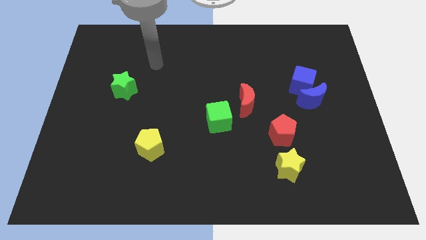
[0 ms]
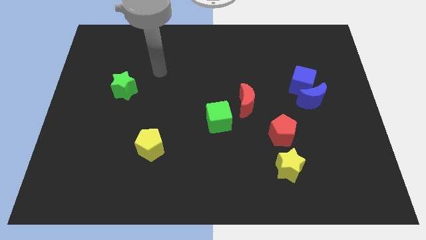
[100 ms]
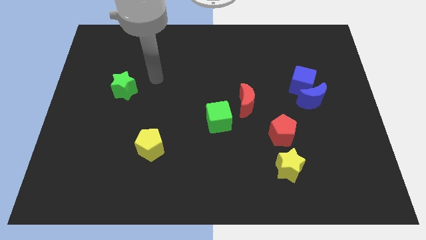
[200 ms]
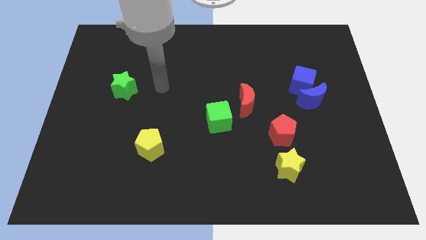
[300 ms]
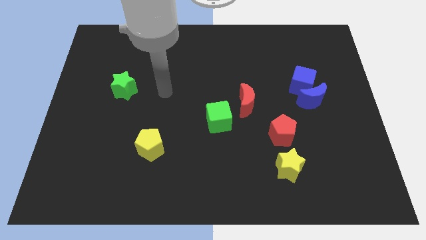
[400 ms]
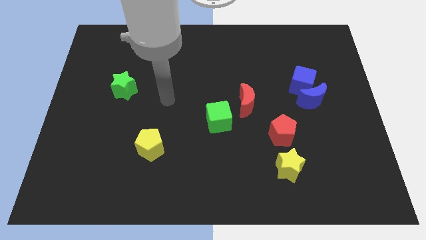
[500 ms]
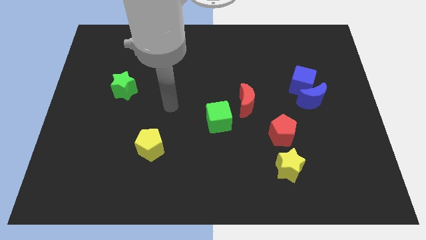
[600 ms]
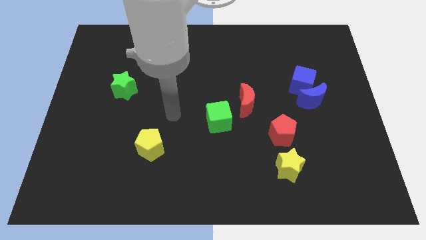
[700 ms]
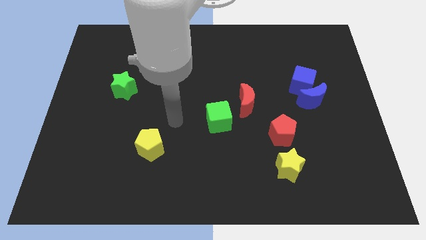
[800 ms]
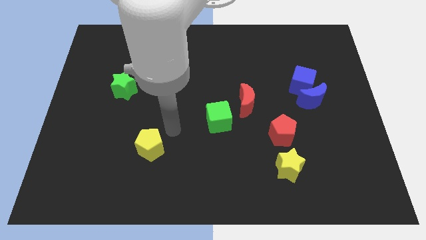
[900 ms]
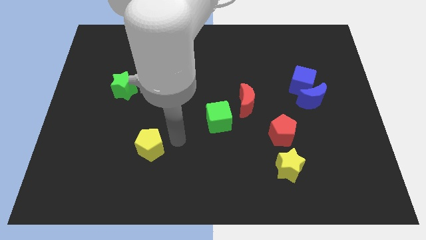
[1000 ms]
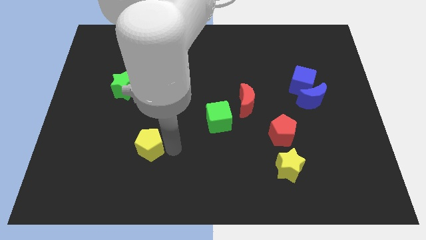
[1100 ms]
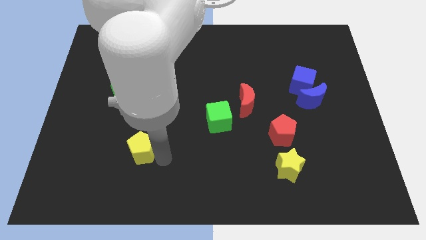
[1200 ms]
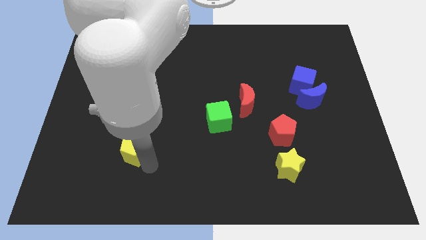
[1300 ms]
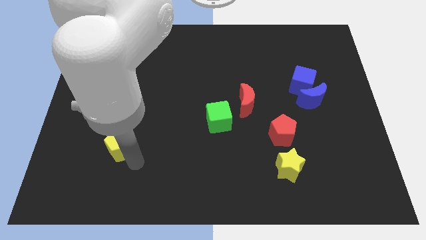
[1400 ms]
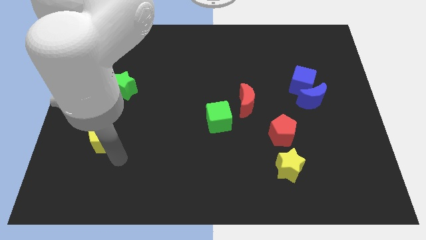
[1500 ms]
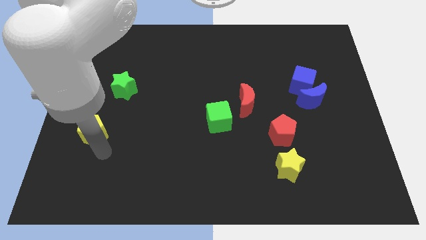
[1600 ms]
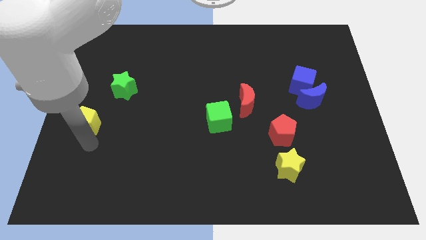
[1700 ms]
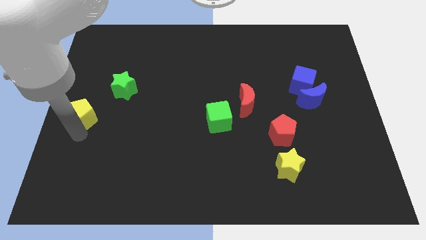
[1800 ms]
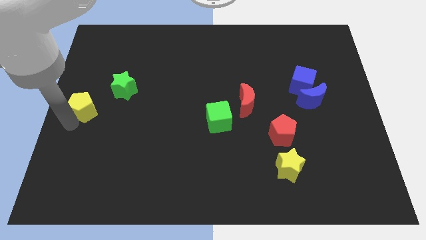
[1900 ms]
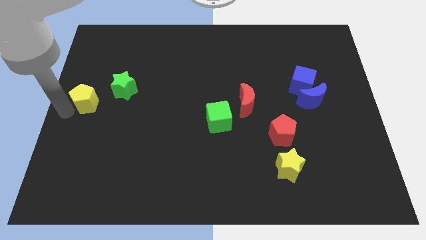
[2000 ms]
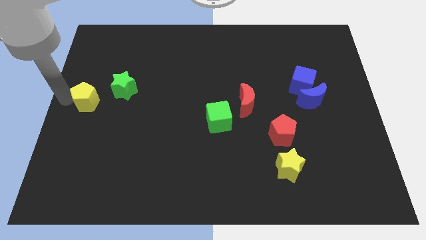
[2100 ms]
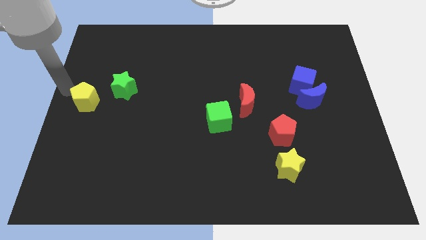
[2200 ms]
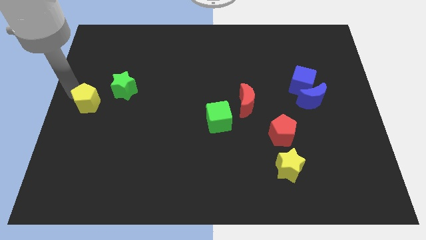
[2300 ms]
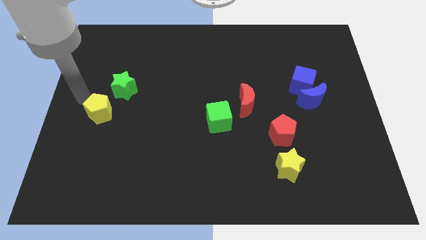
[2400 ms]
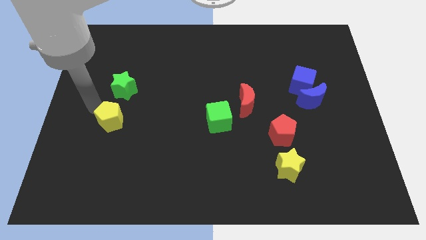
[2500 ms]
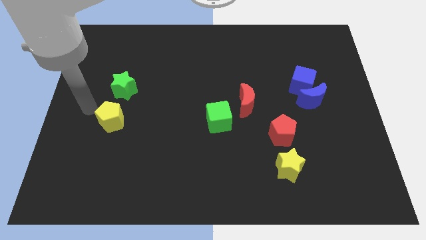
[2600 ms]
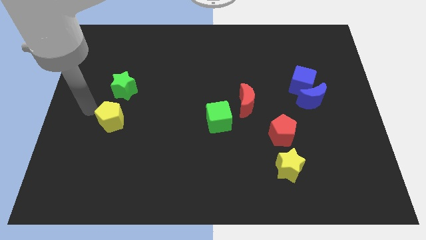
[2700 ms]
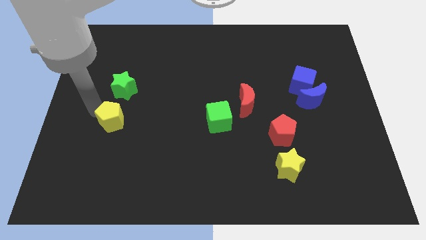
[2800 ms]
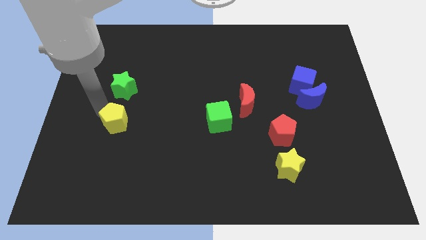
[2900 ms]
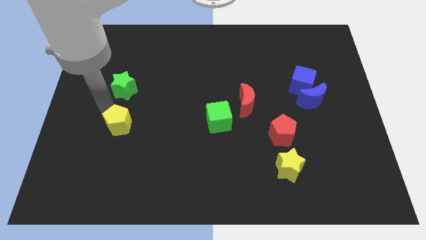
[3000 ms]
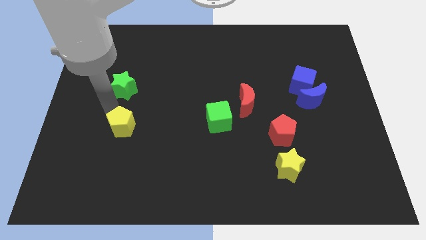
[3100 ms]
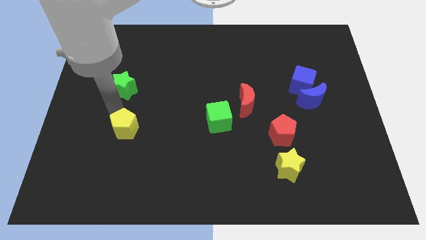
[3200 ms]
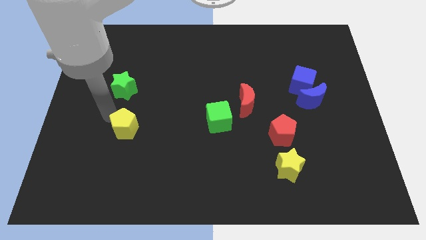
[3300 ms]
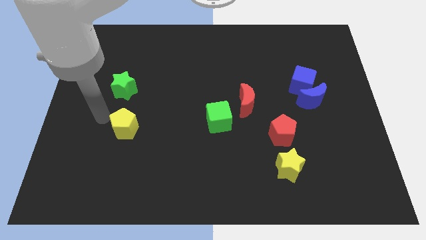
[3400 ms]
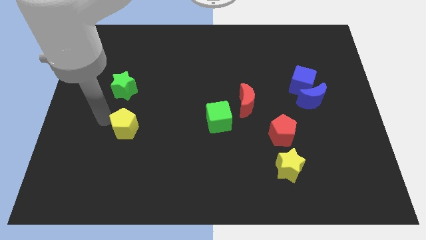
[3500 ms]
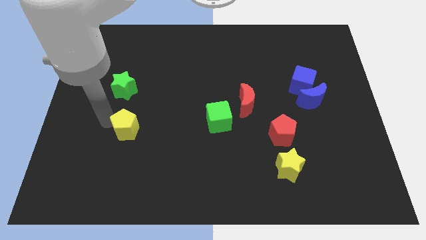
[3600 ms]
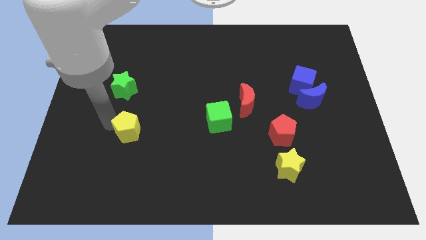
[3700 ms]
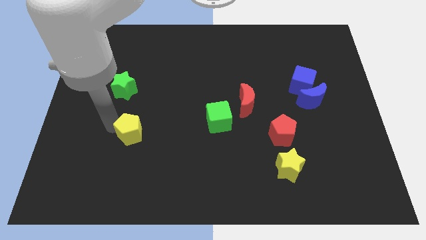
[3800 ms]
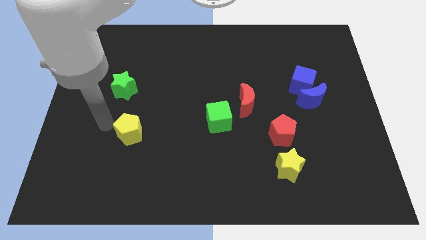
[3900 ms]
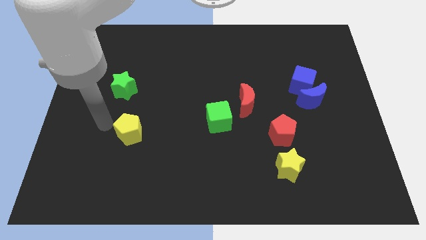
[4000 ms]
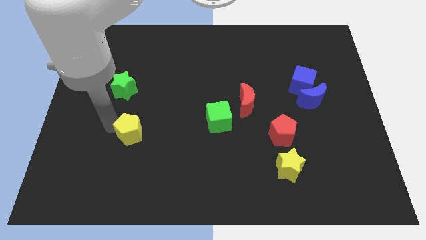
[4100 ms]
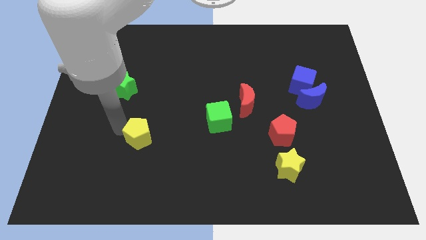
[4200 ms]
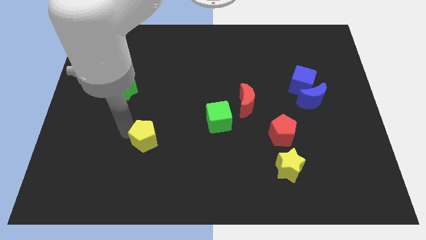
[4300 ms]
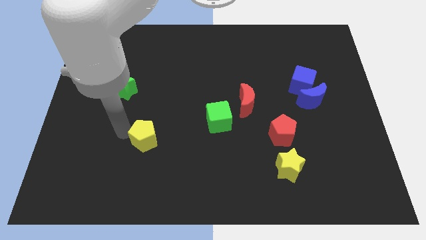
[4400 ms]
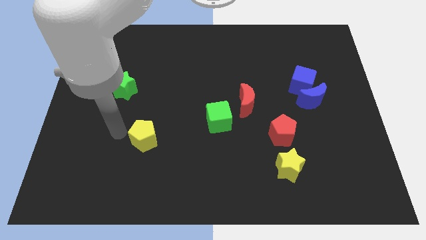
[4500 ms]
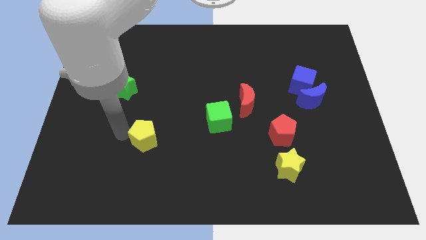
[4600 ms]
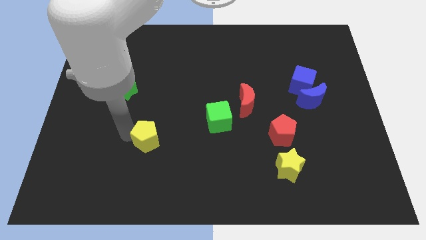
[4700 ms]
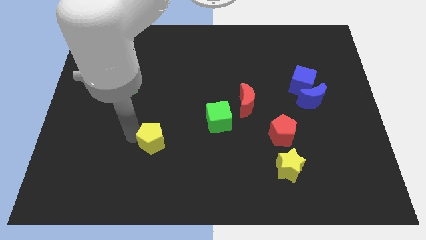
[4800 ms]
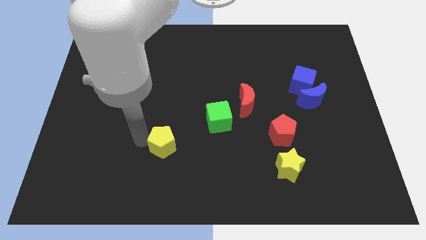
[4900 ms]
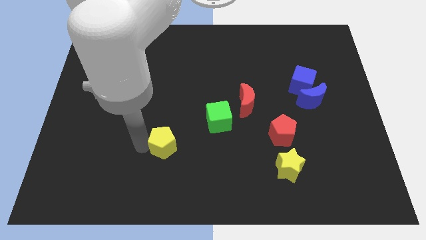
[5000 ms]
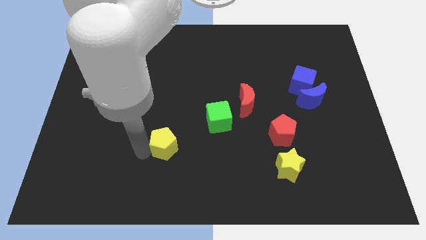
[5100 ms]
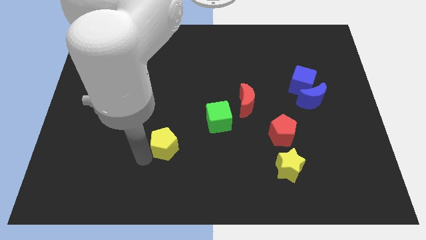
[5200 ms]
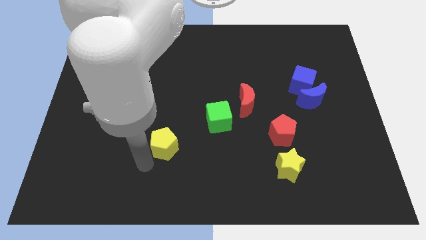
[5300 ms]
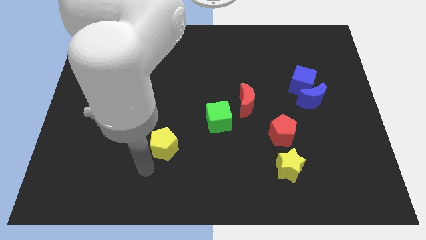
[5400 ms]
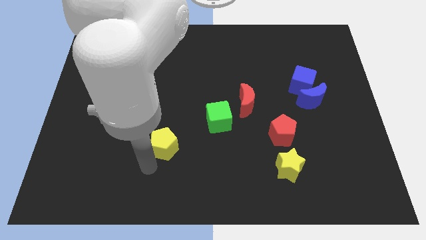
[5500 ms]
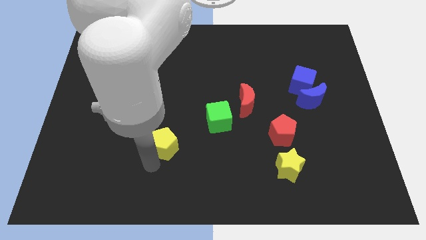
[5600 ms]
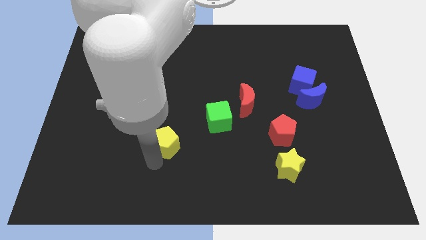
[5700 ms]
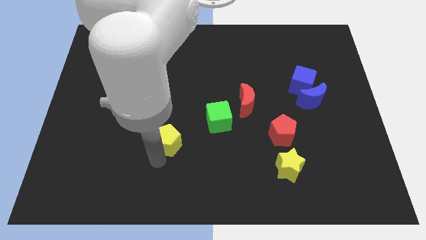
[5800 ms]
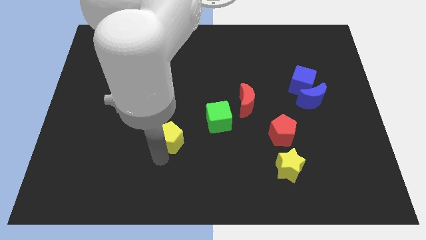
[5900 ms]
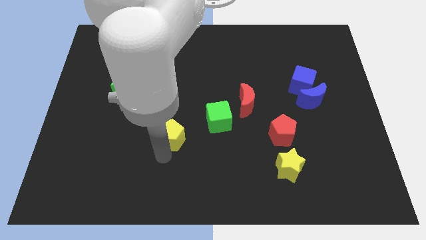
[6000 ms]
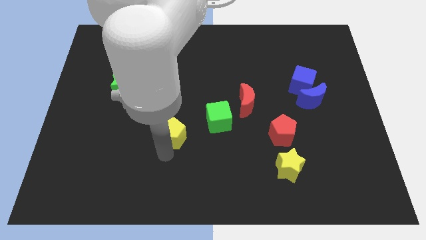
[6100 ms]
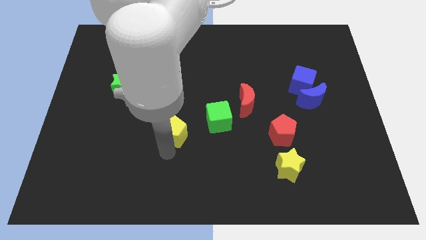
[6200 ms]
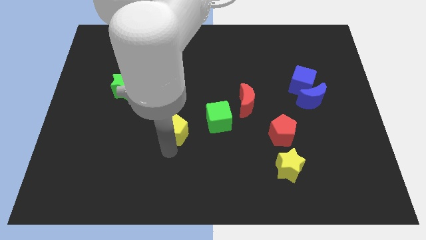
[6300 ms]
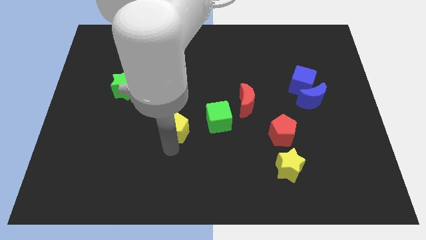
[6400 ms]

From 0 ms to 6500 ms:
push the yellow pentagon a little diagonally upwards and to the right

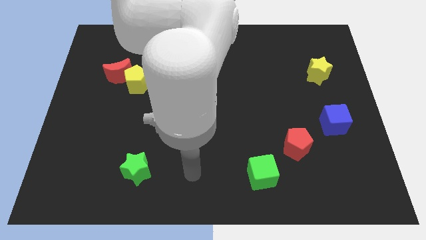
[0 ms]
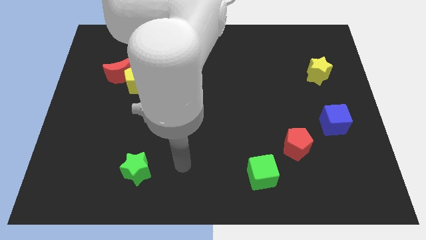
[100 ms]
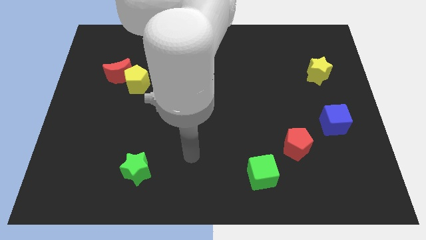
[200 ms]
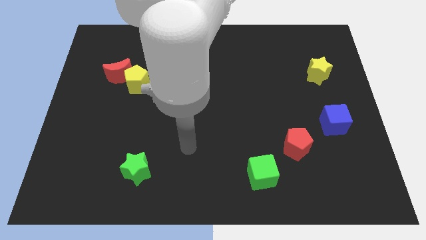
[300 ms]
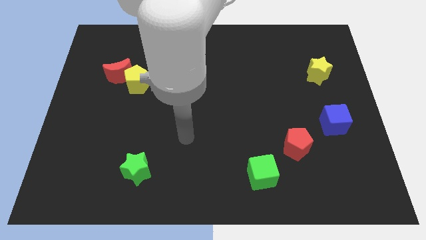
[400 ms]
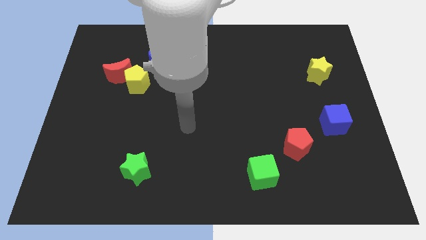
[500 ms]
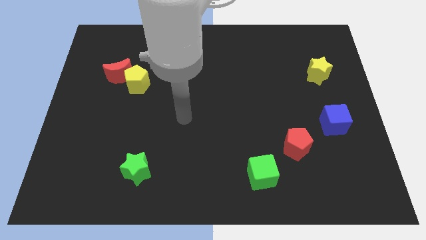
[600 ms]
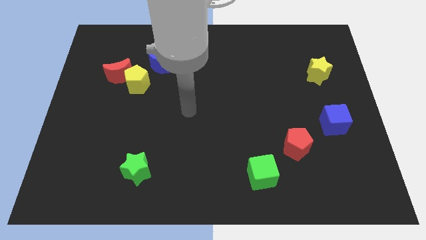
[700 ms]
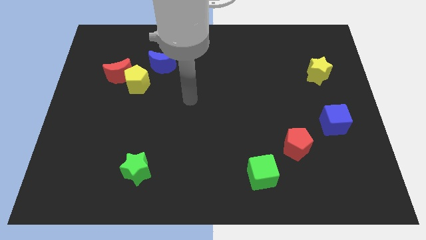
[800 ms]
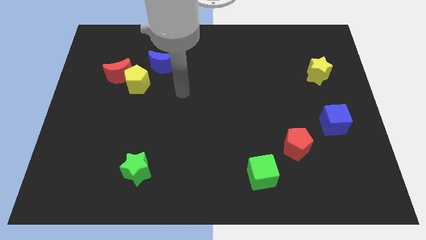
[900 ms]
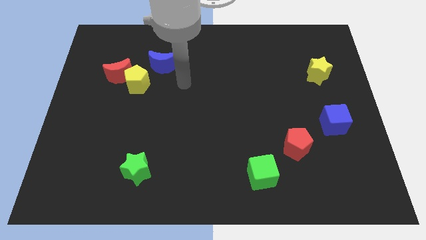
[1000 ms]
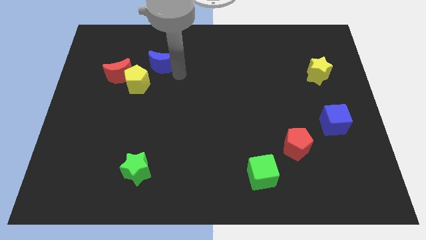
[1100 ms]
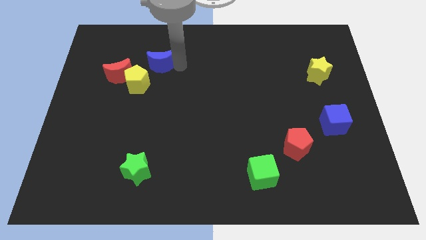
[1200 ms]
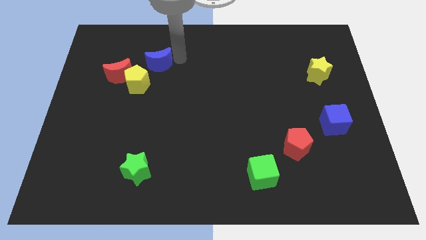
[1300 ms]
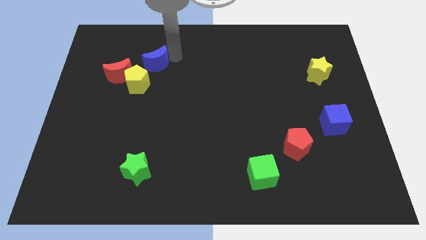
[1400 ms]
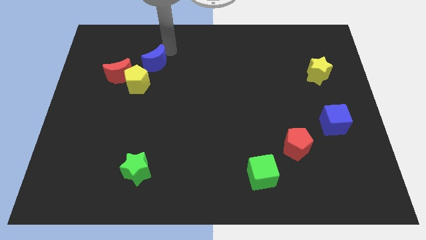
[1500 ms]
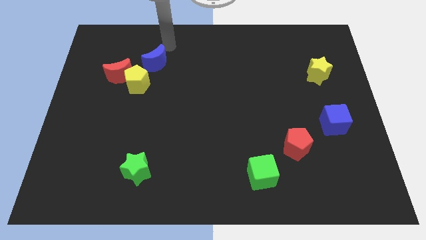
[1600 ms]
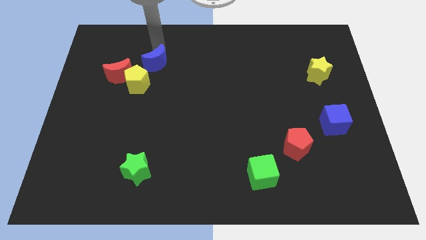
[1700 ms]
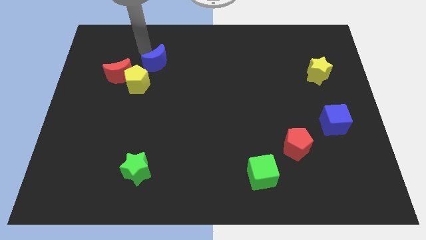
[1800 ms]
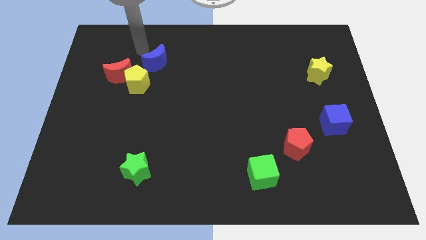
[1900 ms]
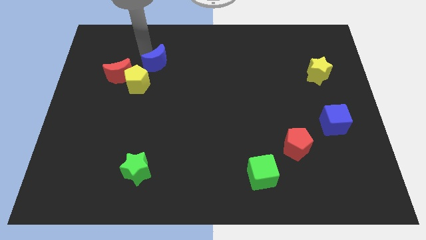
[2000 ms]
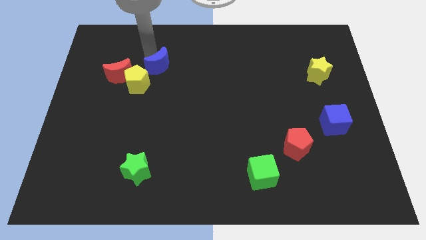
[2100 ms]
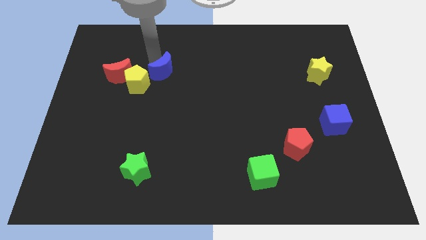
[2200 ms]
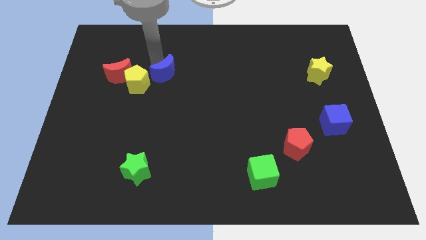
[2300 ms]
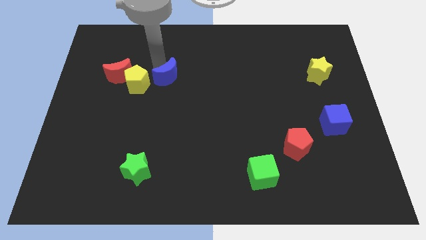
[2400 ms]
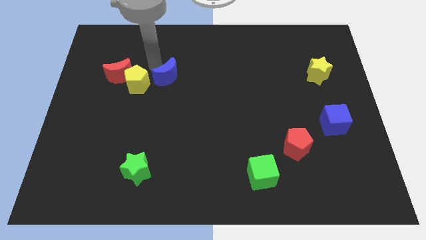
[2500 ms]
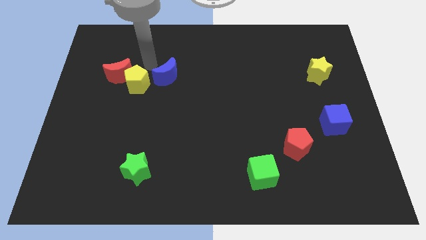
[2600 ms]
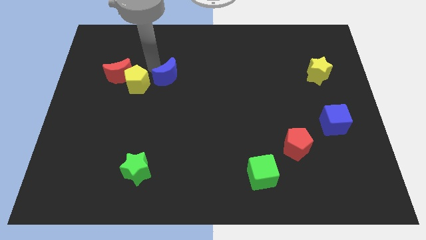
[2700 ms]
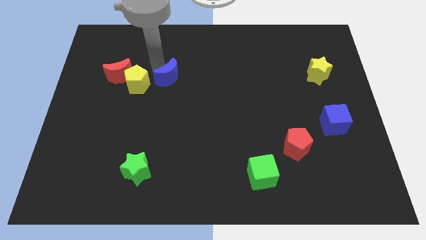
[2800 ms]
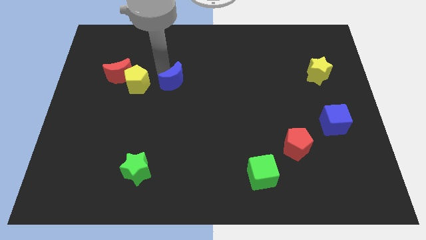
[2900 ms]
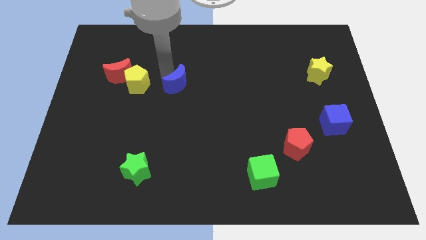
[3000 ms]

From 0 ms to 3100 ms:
move the blue moon slightly downwards and then right
